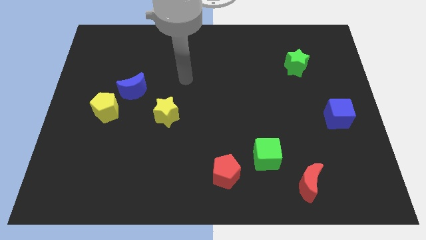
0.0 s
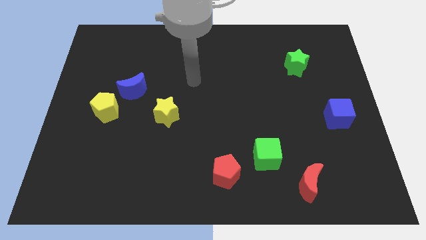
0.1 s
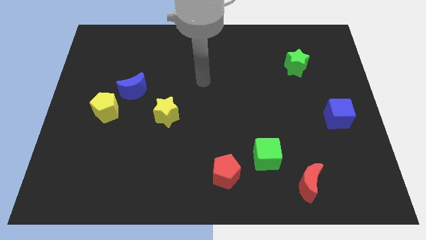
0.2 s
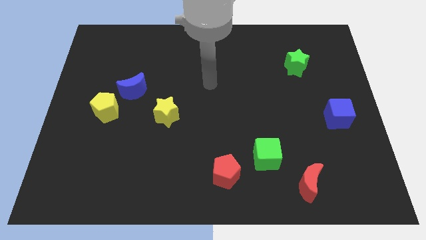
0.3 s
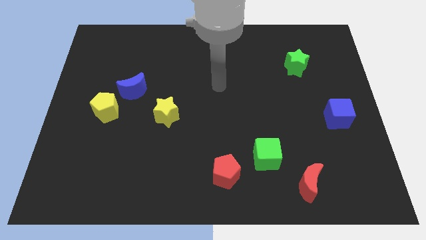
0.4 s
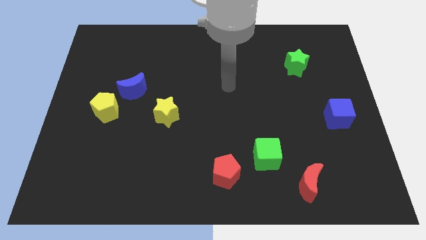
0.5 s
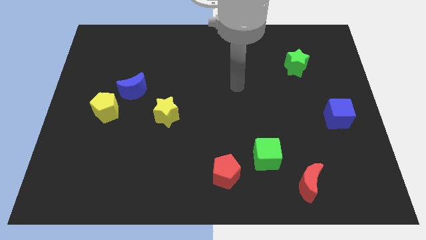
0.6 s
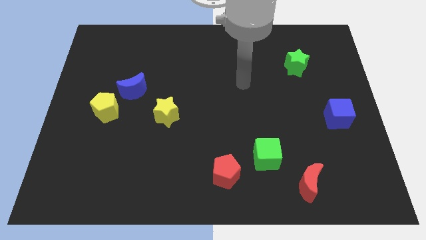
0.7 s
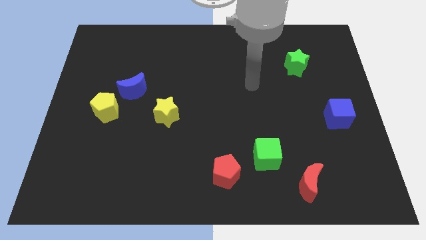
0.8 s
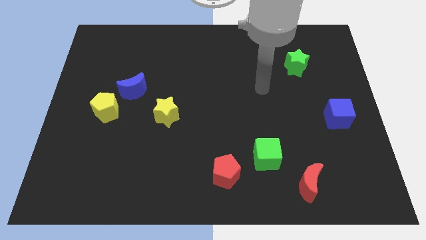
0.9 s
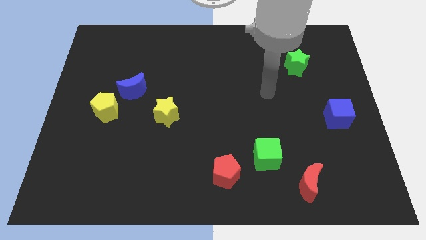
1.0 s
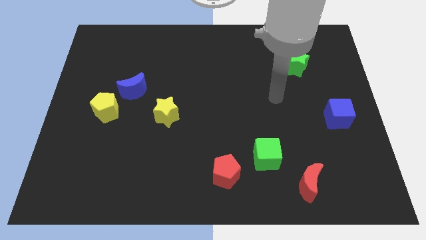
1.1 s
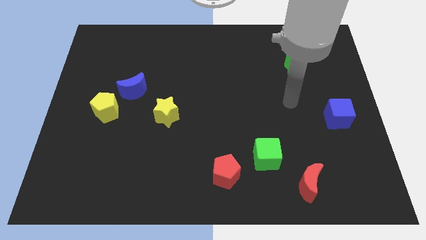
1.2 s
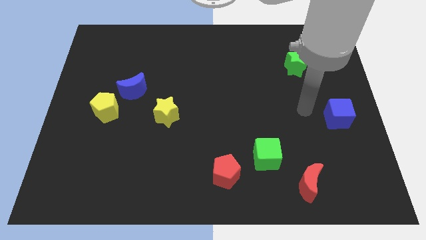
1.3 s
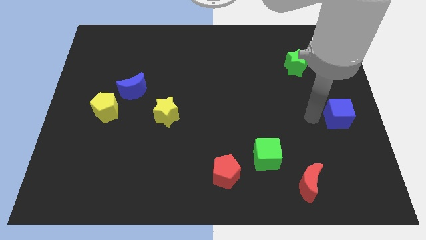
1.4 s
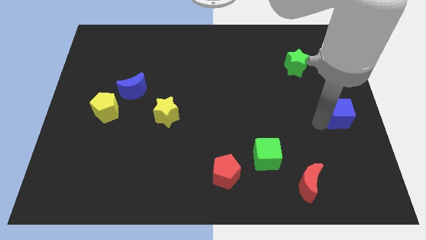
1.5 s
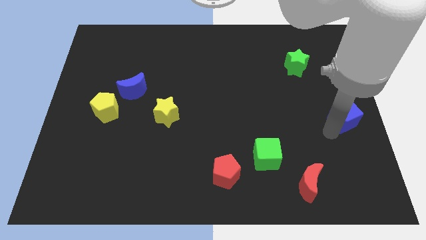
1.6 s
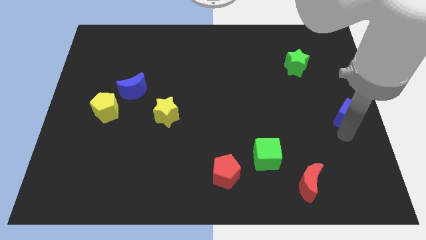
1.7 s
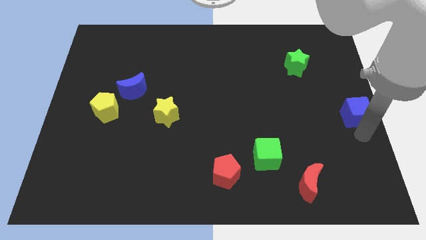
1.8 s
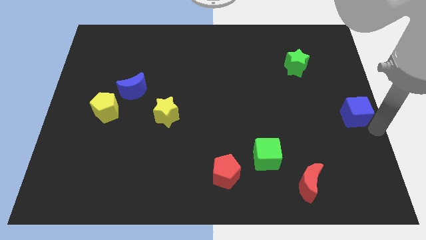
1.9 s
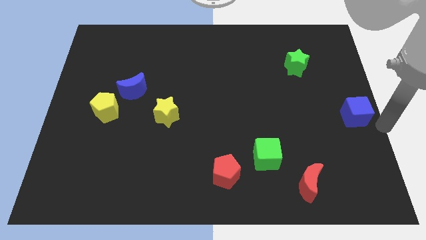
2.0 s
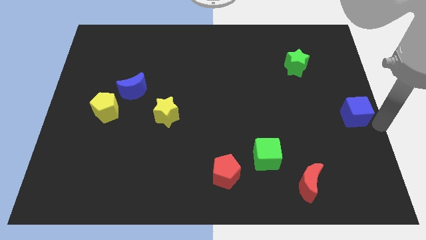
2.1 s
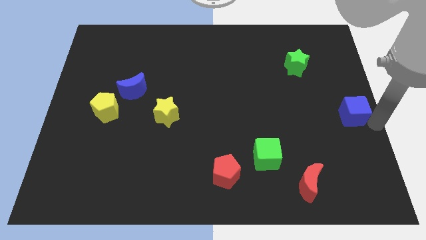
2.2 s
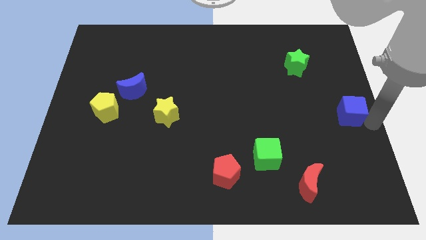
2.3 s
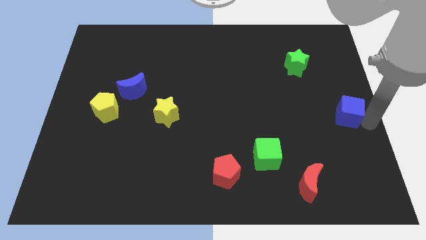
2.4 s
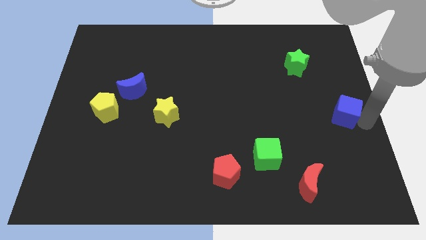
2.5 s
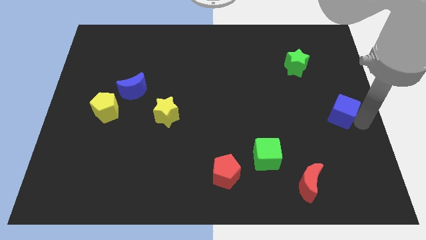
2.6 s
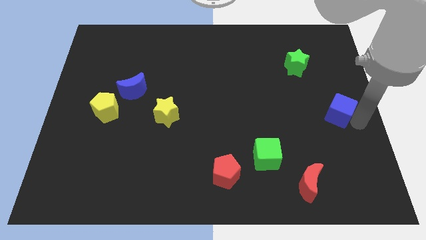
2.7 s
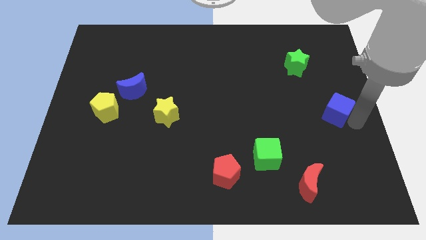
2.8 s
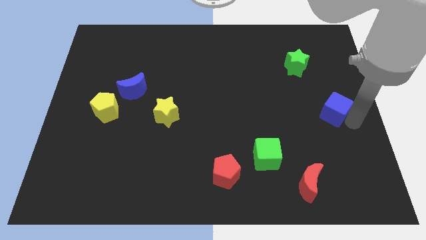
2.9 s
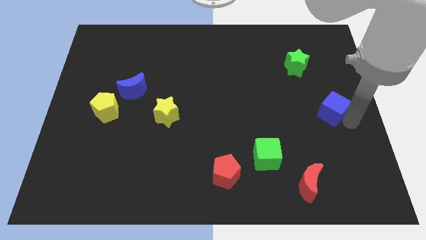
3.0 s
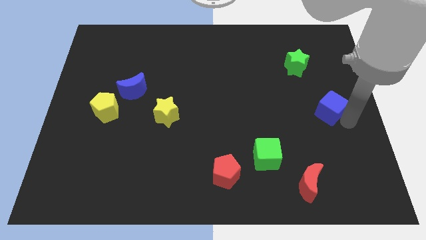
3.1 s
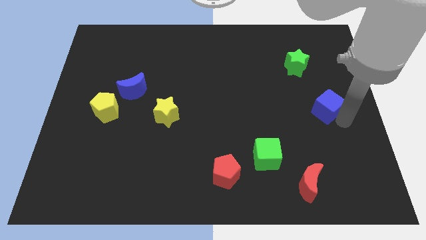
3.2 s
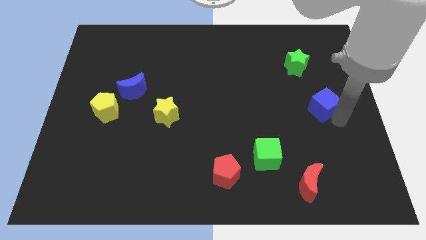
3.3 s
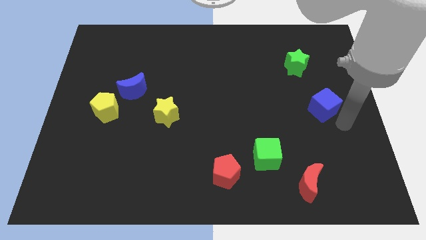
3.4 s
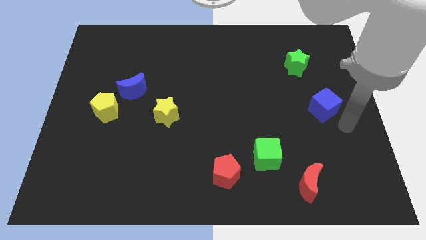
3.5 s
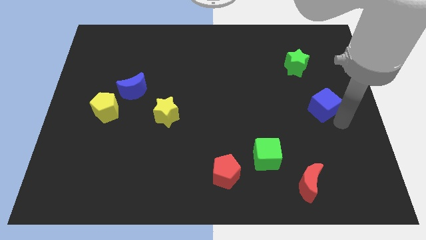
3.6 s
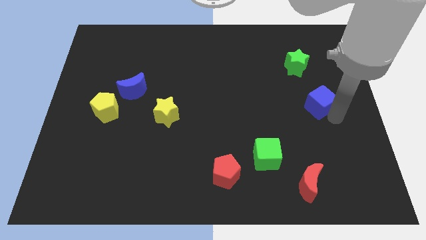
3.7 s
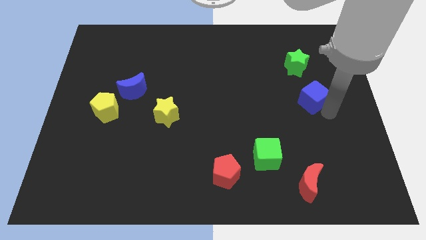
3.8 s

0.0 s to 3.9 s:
slightly push the blue cube up and then left

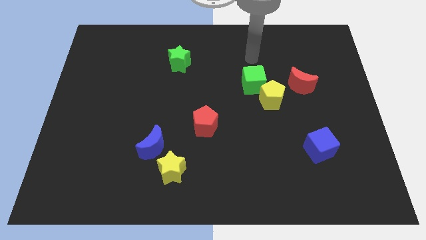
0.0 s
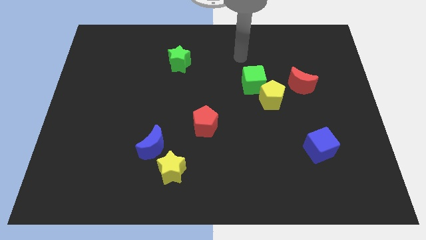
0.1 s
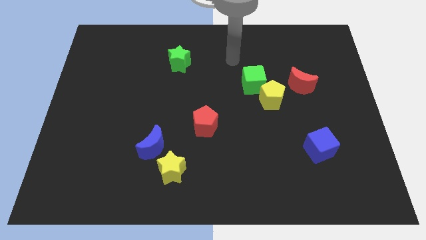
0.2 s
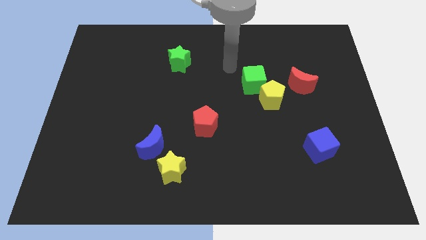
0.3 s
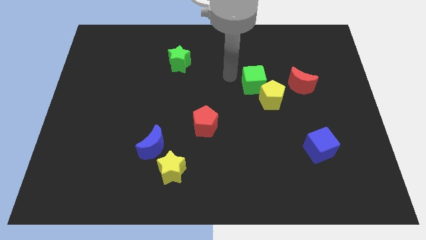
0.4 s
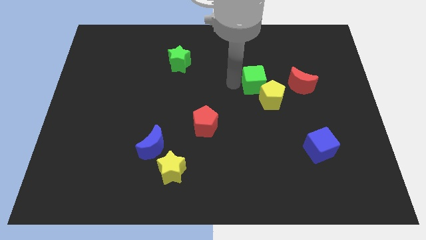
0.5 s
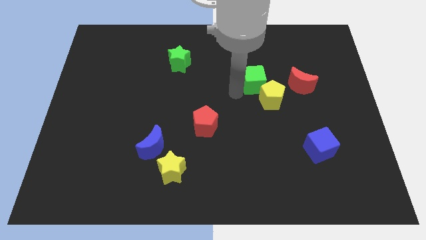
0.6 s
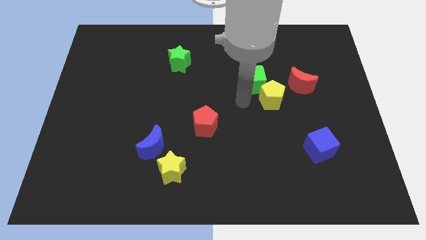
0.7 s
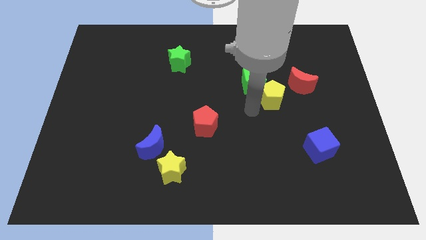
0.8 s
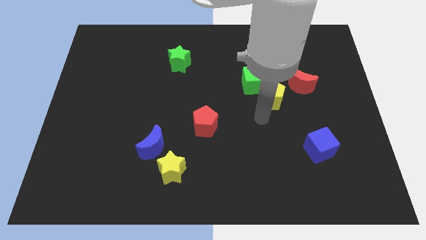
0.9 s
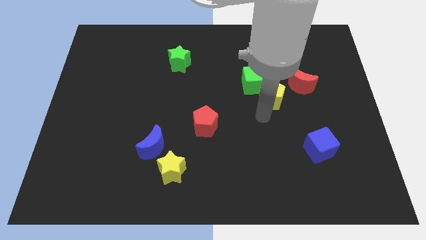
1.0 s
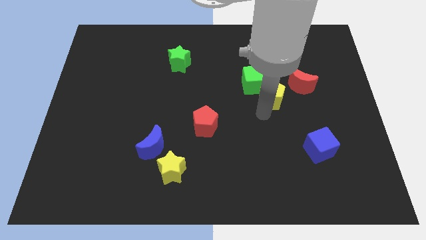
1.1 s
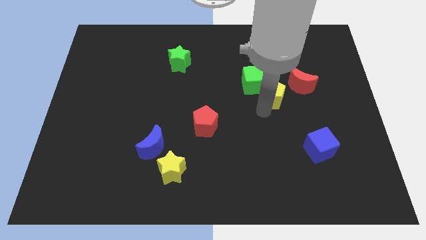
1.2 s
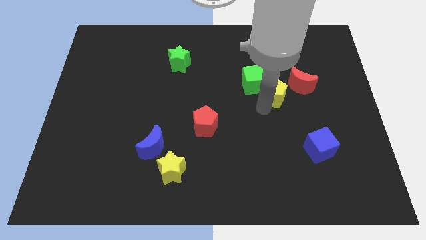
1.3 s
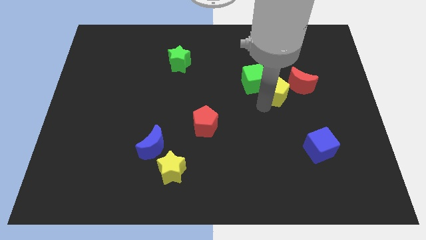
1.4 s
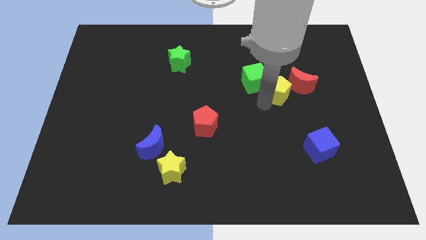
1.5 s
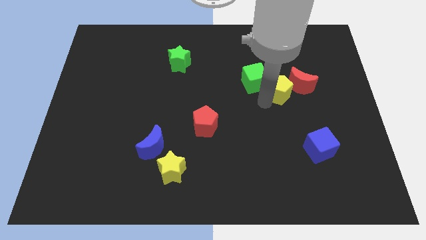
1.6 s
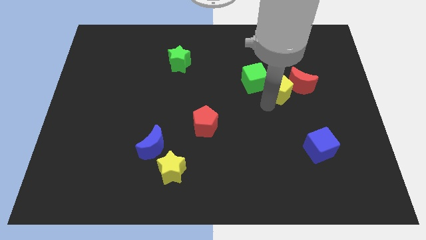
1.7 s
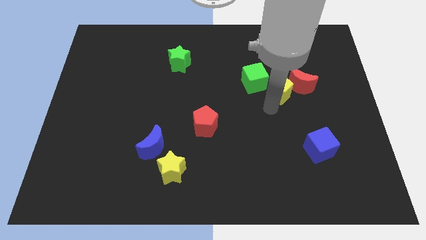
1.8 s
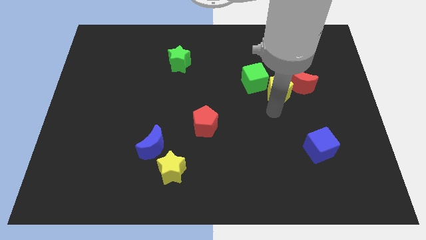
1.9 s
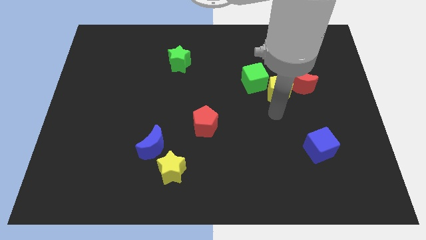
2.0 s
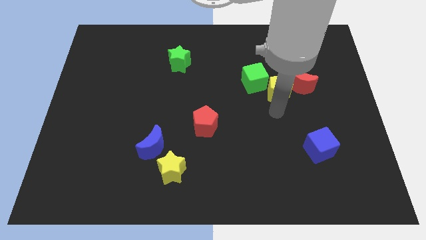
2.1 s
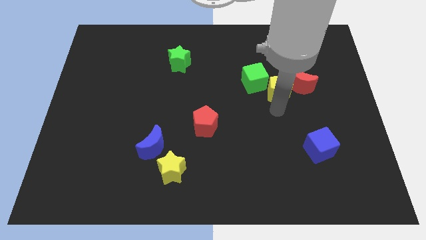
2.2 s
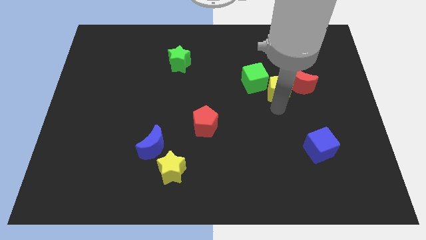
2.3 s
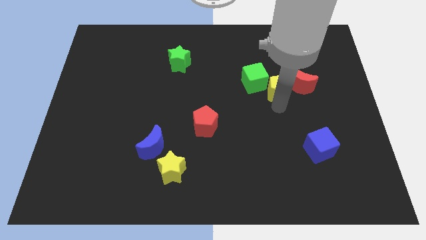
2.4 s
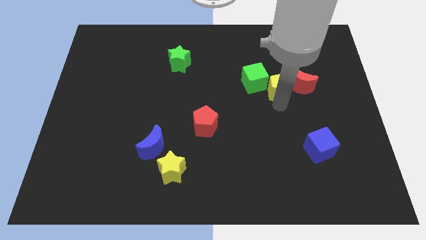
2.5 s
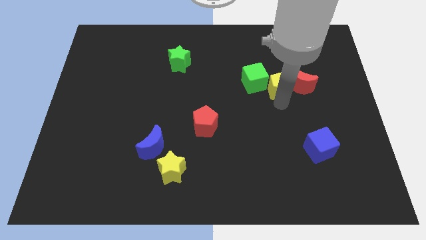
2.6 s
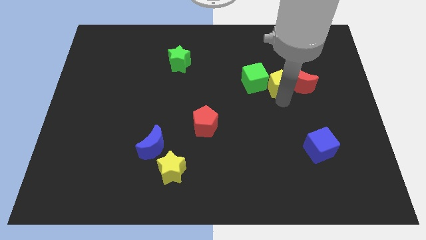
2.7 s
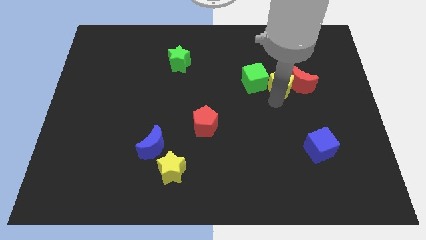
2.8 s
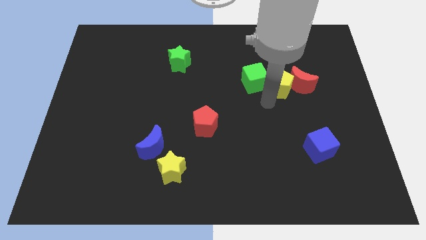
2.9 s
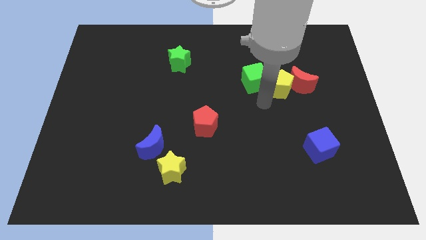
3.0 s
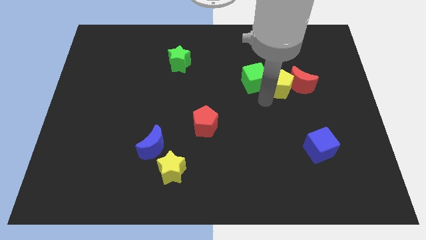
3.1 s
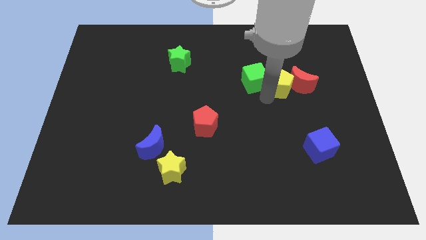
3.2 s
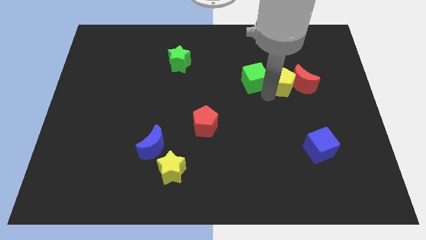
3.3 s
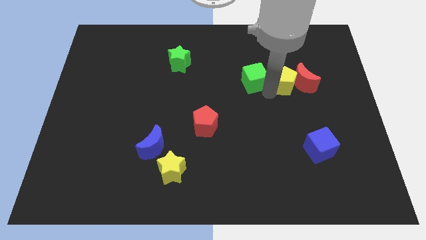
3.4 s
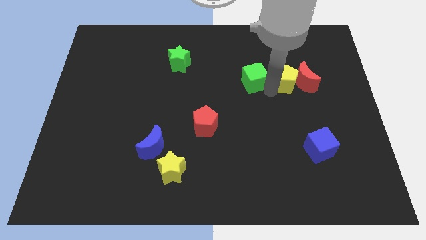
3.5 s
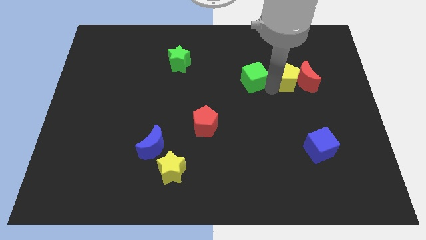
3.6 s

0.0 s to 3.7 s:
slightly slide the yellow pentagon upwards and then right

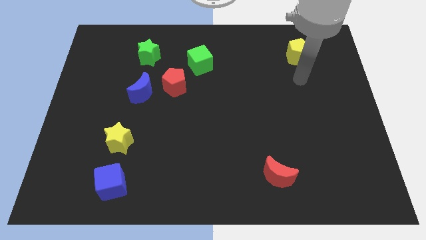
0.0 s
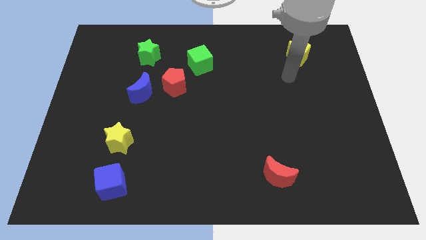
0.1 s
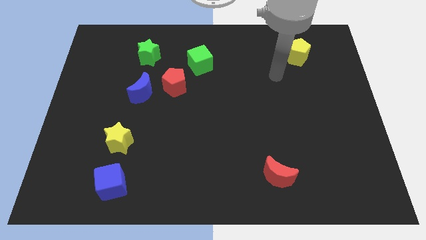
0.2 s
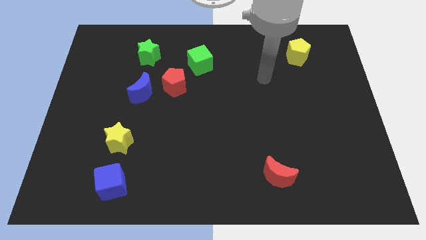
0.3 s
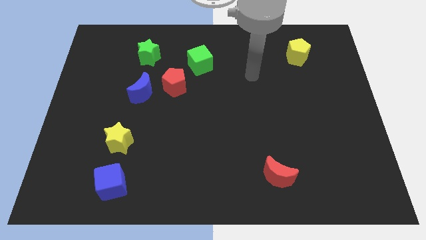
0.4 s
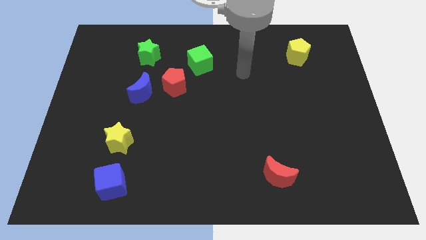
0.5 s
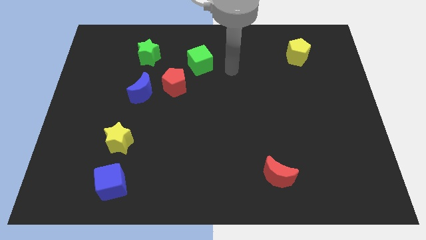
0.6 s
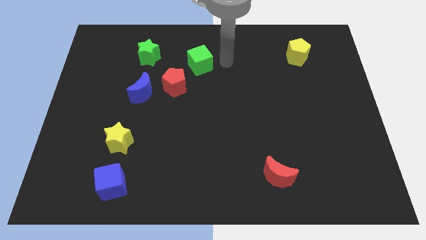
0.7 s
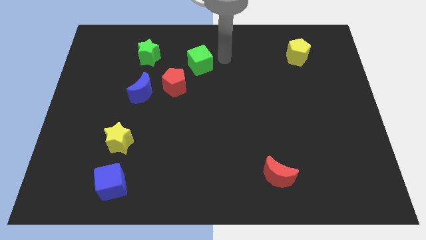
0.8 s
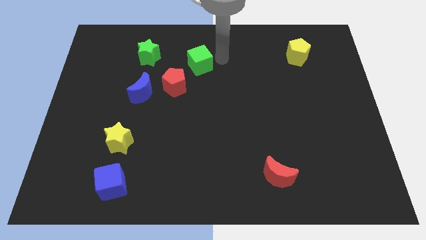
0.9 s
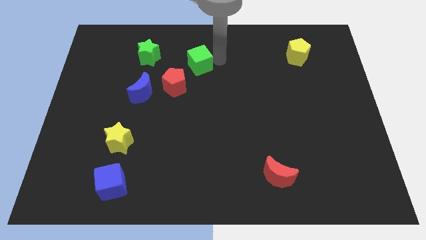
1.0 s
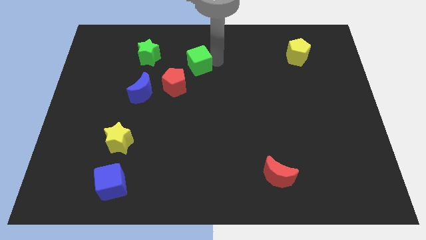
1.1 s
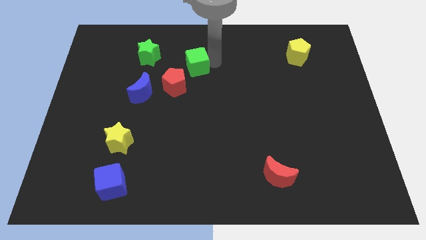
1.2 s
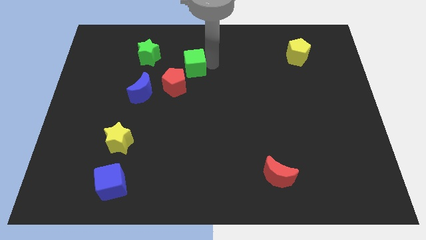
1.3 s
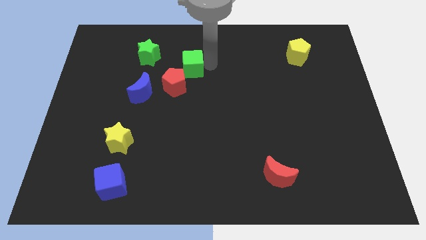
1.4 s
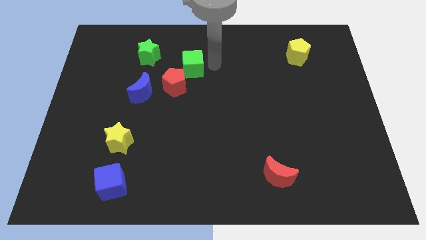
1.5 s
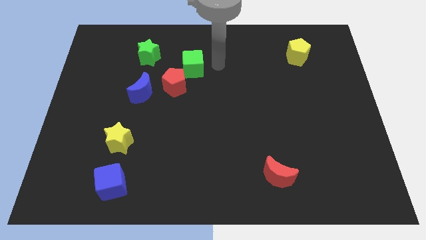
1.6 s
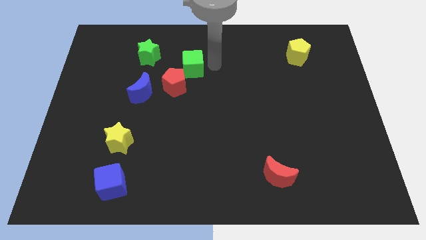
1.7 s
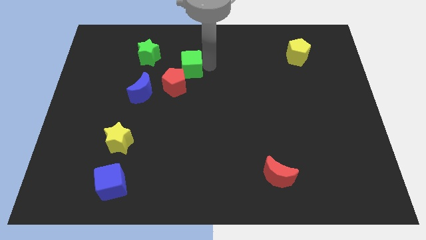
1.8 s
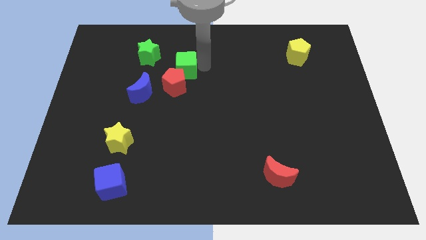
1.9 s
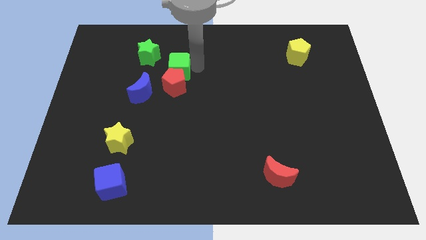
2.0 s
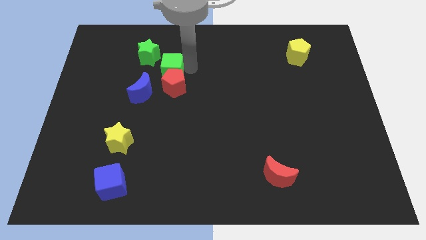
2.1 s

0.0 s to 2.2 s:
slide the green cube a bit left
